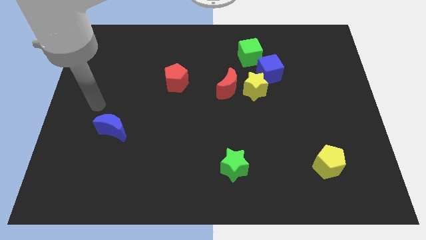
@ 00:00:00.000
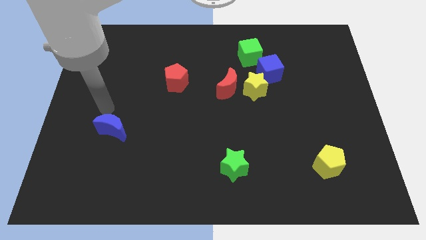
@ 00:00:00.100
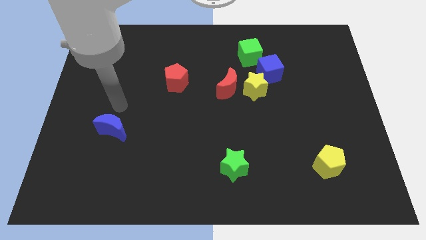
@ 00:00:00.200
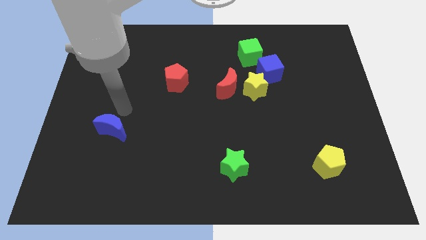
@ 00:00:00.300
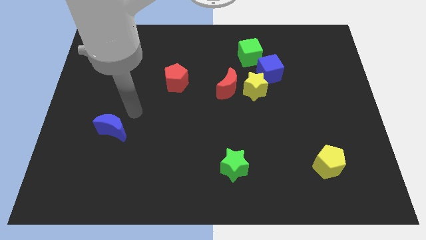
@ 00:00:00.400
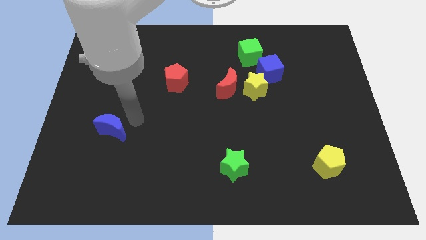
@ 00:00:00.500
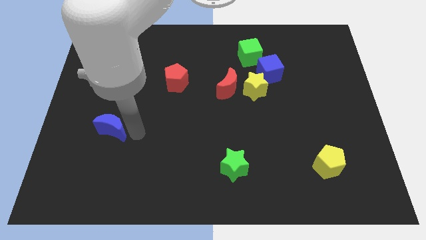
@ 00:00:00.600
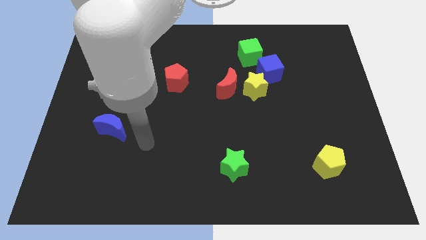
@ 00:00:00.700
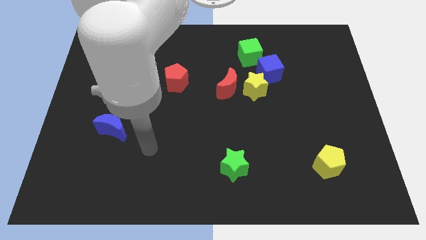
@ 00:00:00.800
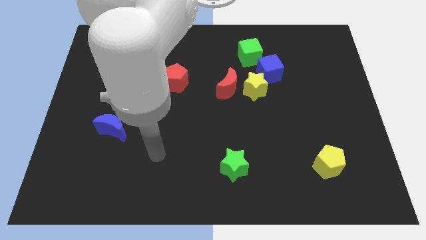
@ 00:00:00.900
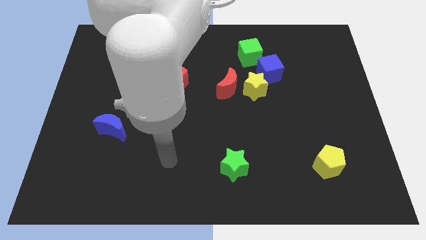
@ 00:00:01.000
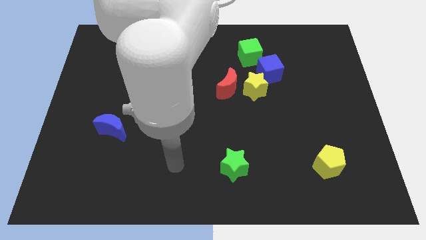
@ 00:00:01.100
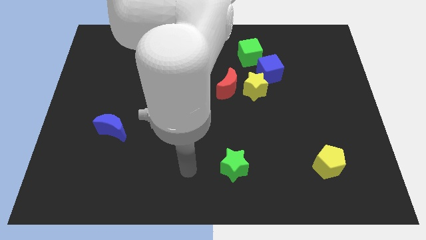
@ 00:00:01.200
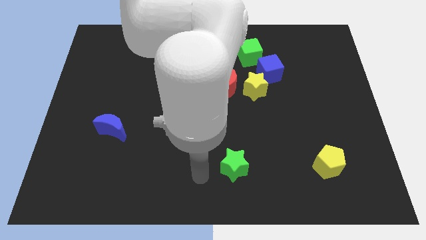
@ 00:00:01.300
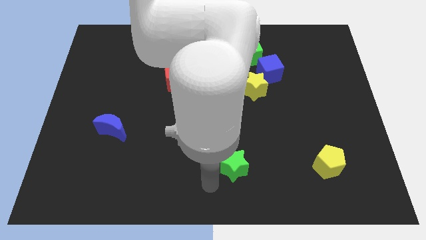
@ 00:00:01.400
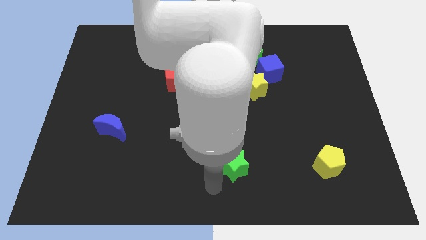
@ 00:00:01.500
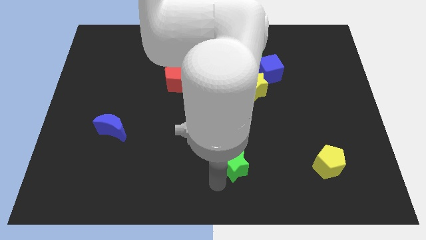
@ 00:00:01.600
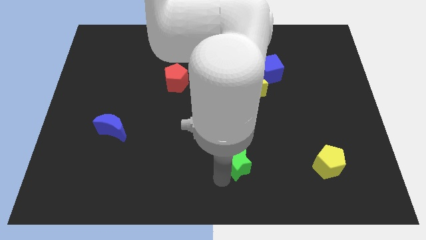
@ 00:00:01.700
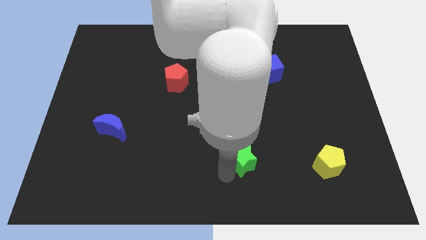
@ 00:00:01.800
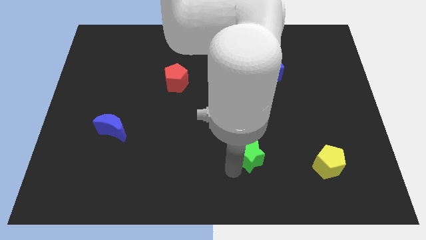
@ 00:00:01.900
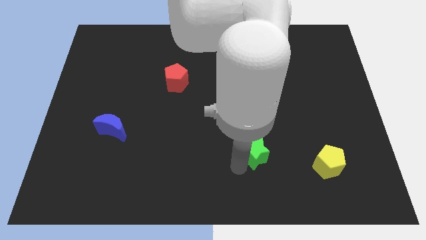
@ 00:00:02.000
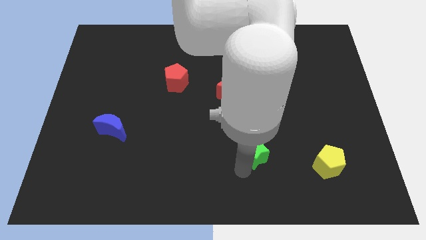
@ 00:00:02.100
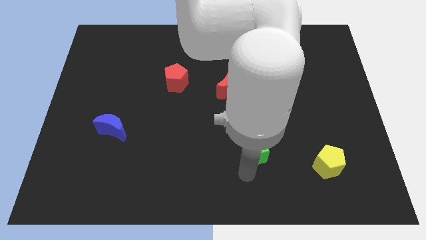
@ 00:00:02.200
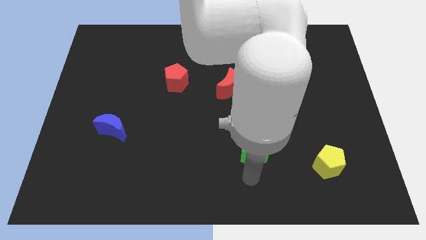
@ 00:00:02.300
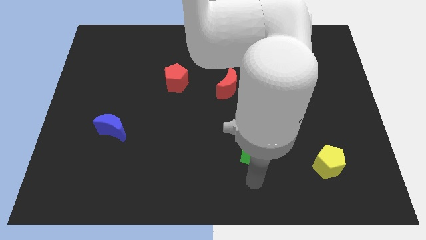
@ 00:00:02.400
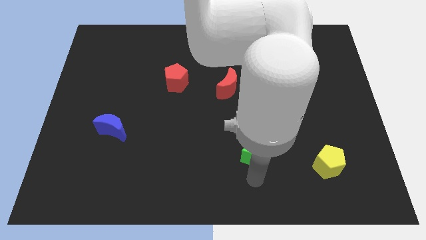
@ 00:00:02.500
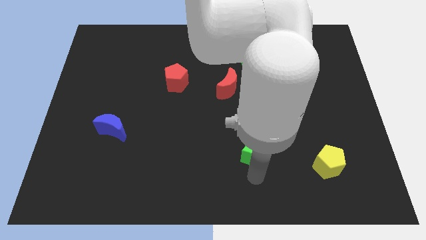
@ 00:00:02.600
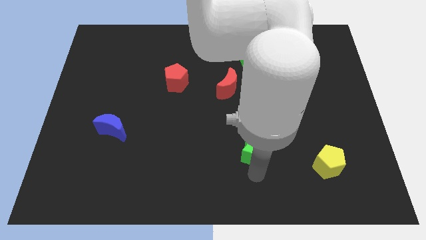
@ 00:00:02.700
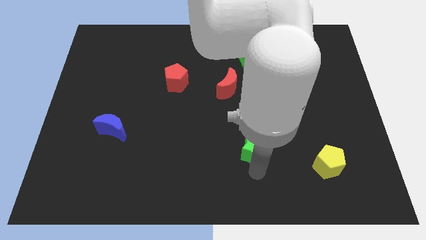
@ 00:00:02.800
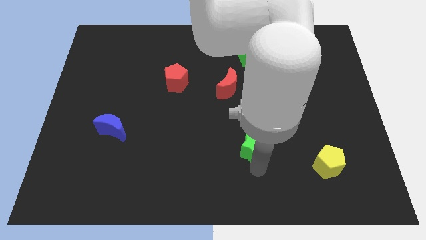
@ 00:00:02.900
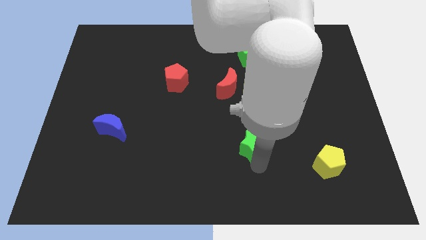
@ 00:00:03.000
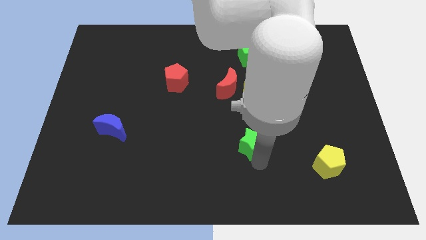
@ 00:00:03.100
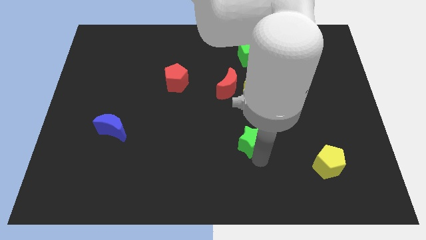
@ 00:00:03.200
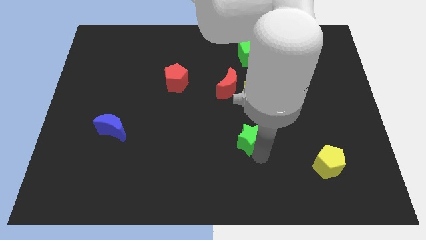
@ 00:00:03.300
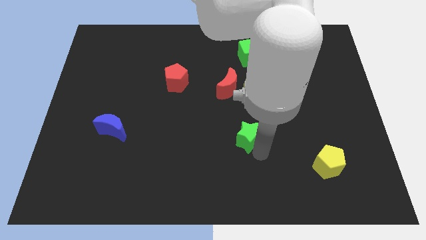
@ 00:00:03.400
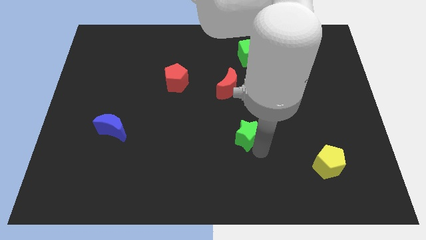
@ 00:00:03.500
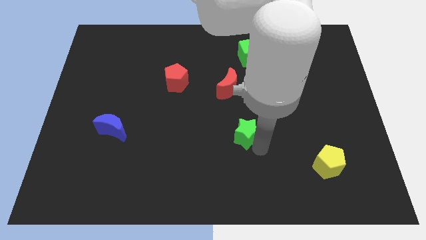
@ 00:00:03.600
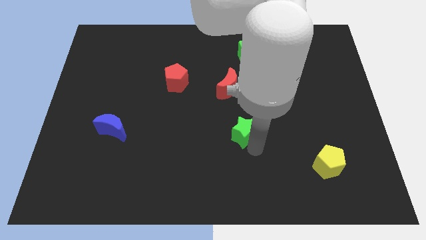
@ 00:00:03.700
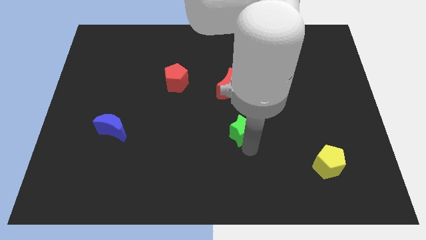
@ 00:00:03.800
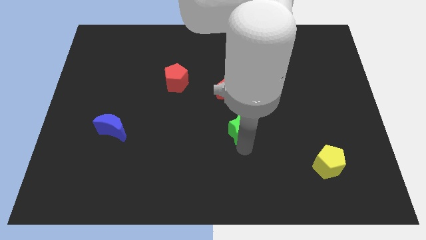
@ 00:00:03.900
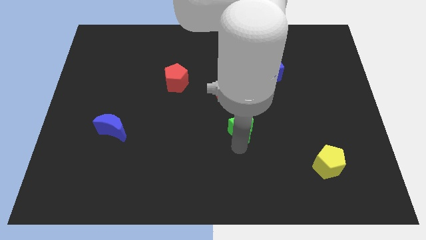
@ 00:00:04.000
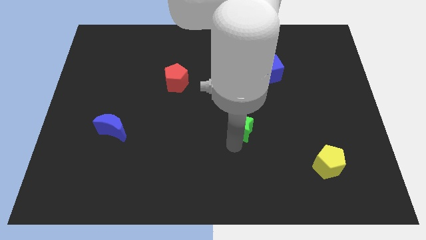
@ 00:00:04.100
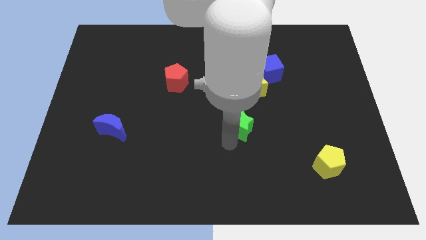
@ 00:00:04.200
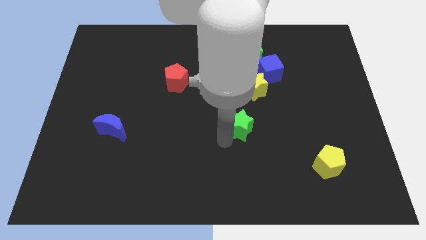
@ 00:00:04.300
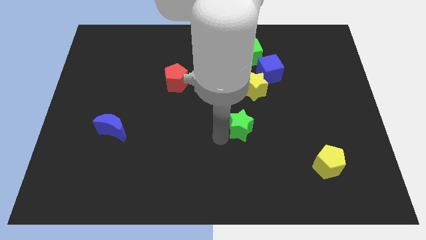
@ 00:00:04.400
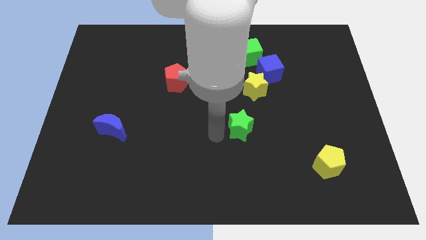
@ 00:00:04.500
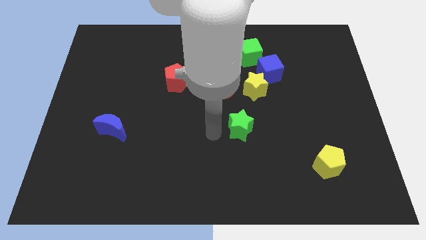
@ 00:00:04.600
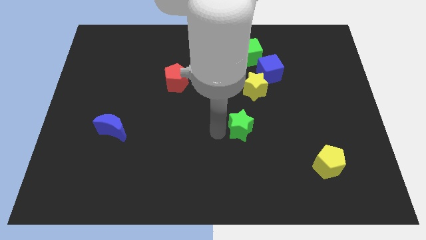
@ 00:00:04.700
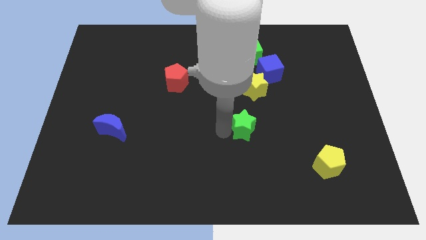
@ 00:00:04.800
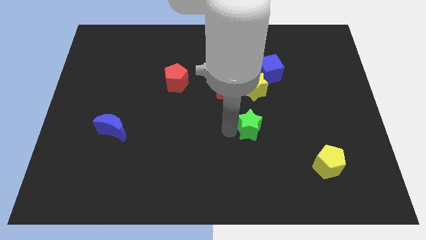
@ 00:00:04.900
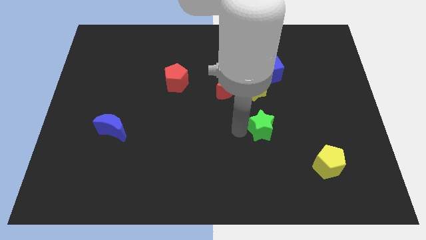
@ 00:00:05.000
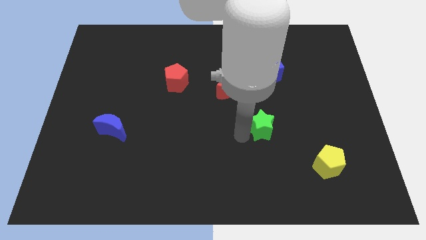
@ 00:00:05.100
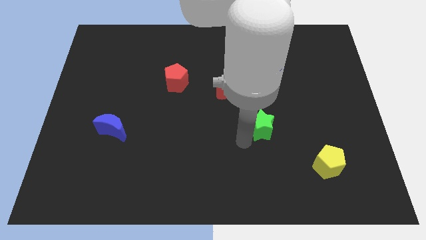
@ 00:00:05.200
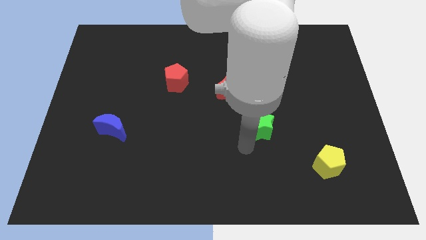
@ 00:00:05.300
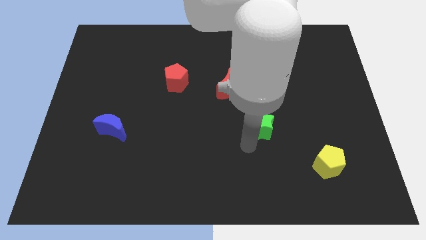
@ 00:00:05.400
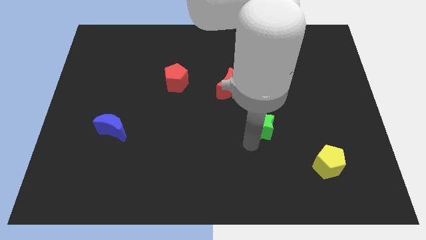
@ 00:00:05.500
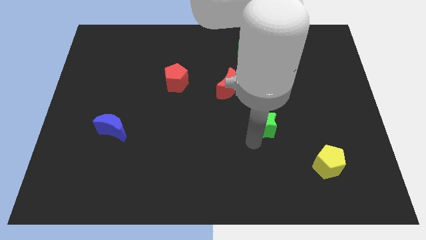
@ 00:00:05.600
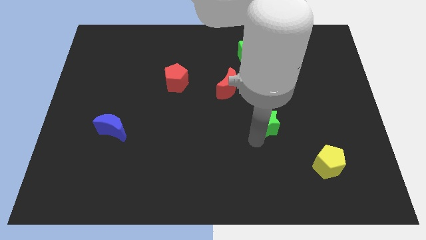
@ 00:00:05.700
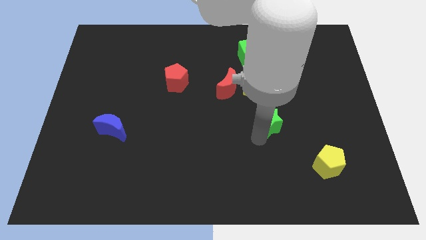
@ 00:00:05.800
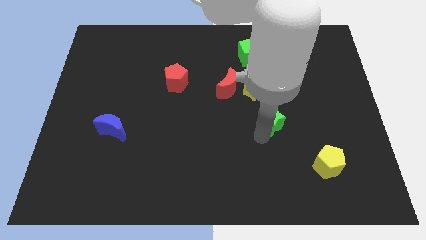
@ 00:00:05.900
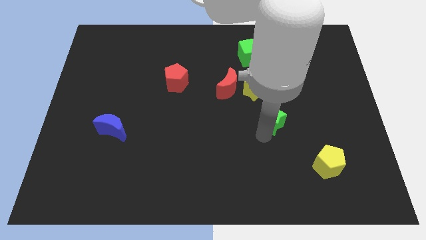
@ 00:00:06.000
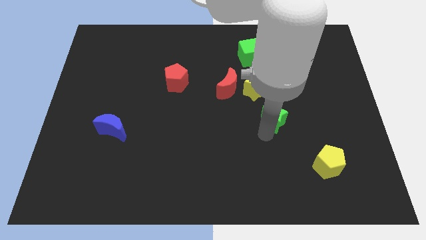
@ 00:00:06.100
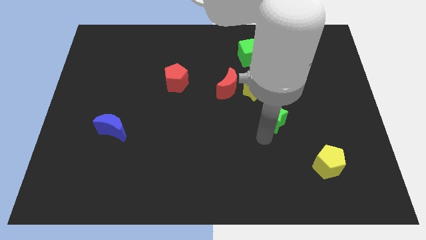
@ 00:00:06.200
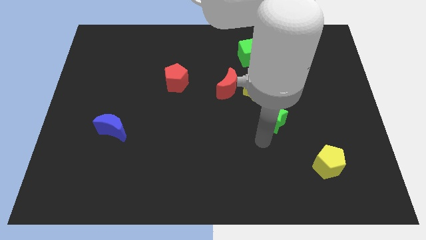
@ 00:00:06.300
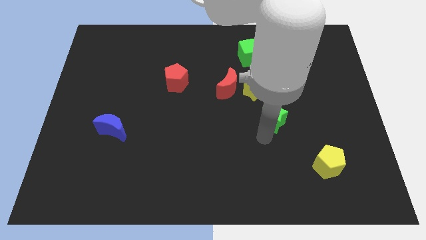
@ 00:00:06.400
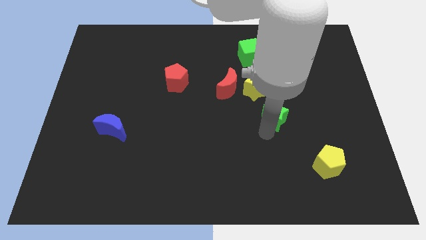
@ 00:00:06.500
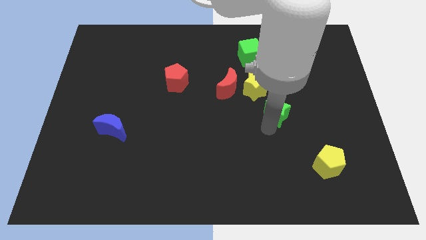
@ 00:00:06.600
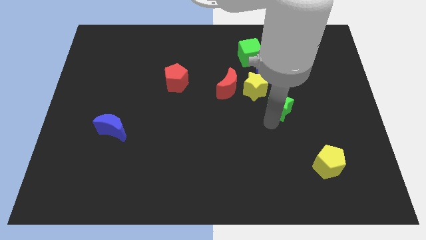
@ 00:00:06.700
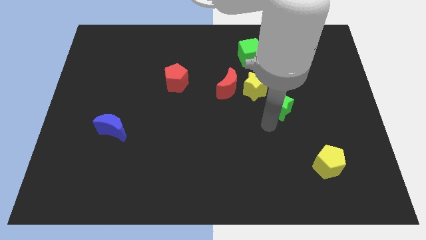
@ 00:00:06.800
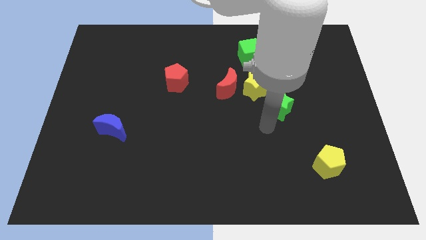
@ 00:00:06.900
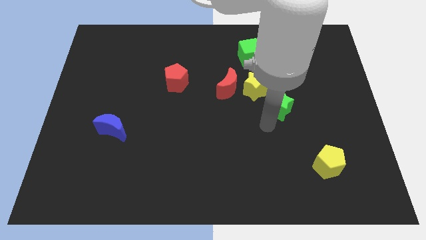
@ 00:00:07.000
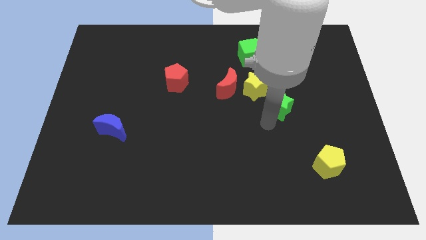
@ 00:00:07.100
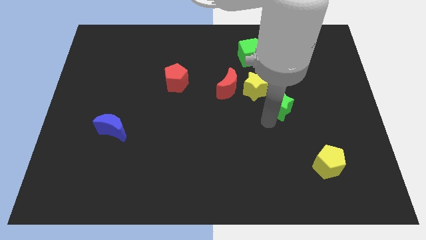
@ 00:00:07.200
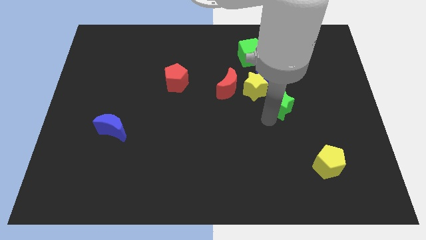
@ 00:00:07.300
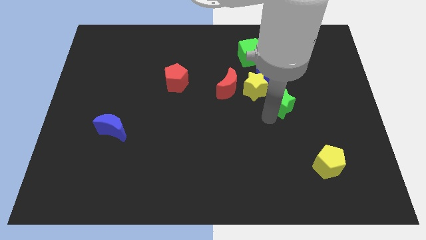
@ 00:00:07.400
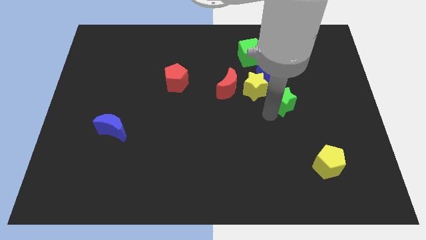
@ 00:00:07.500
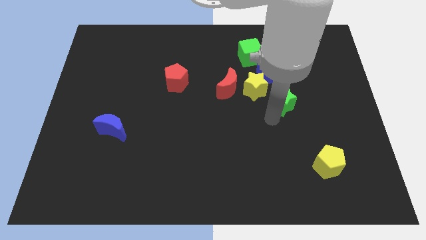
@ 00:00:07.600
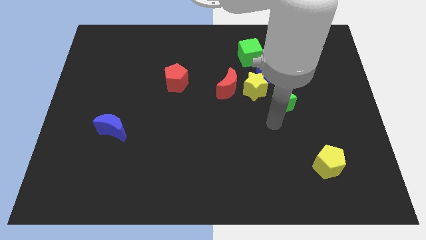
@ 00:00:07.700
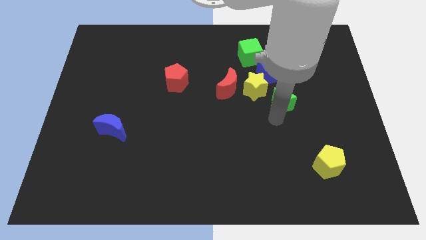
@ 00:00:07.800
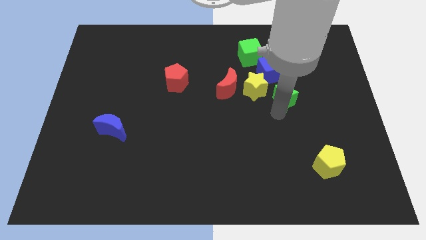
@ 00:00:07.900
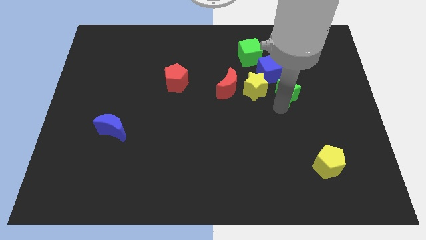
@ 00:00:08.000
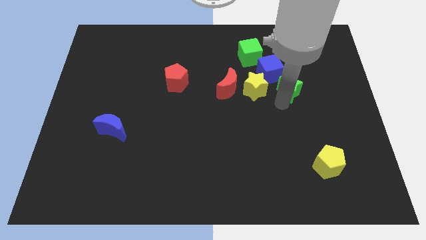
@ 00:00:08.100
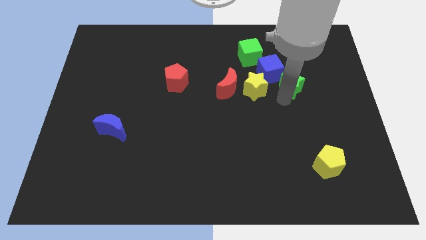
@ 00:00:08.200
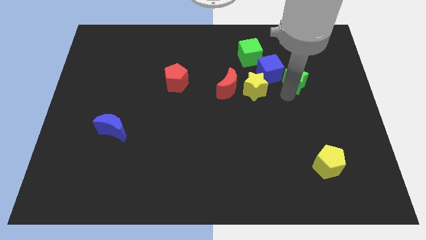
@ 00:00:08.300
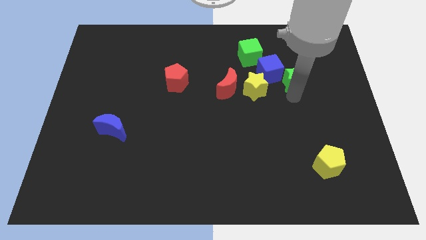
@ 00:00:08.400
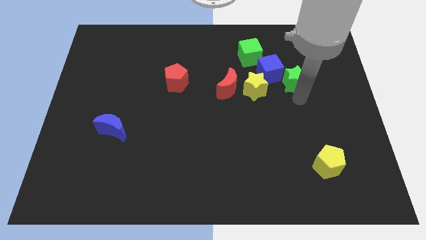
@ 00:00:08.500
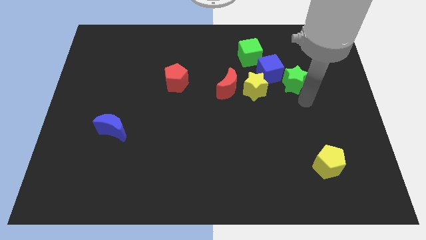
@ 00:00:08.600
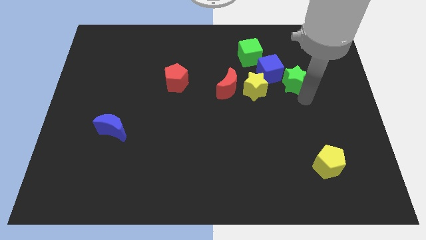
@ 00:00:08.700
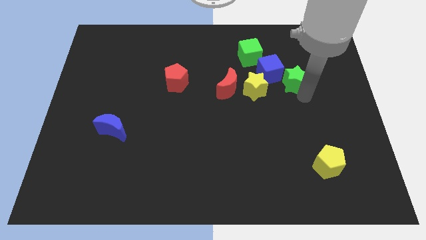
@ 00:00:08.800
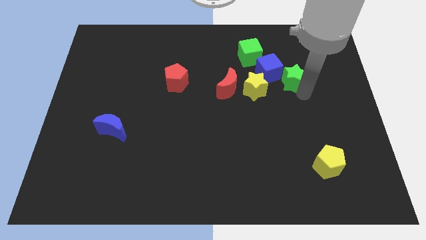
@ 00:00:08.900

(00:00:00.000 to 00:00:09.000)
move the green star to the top right side of the yellow star
